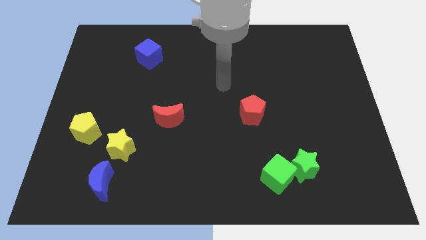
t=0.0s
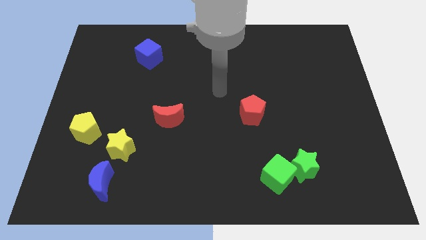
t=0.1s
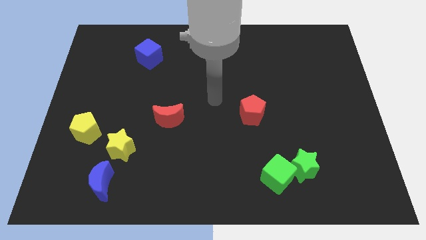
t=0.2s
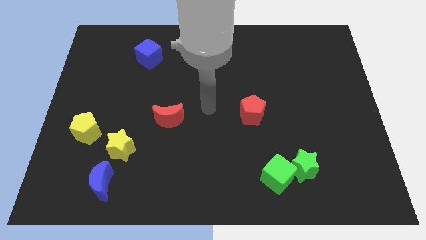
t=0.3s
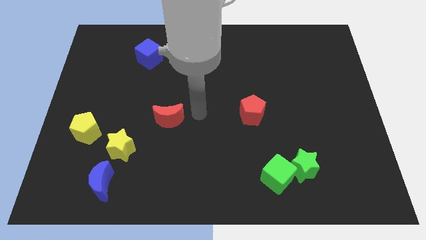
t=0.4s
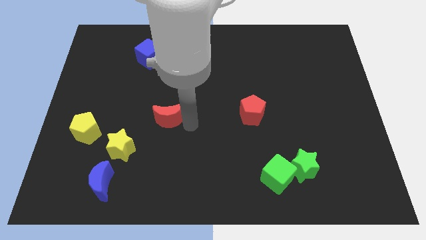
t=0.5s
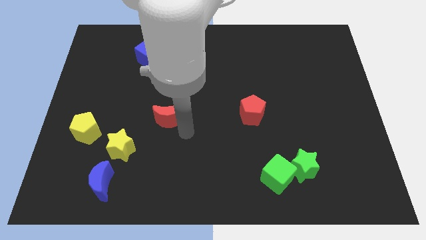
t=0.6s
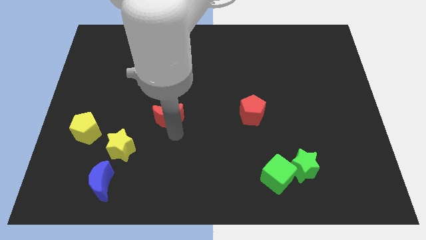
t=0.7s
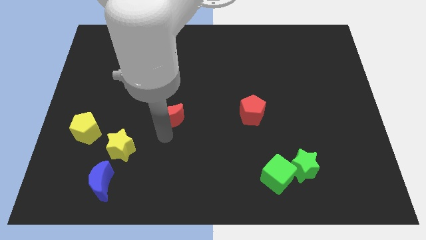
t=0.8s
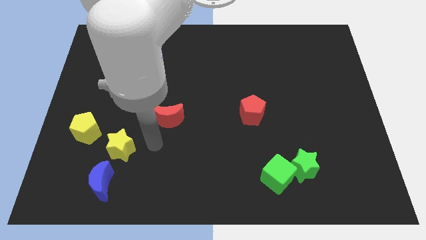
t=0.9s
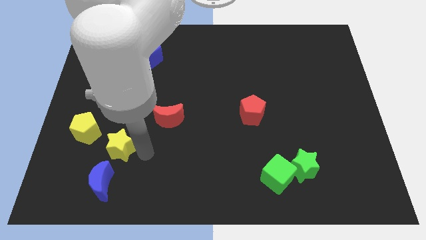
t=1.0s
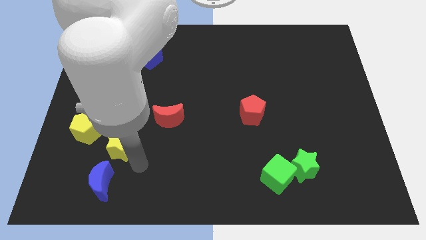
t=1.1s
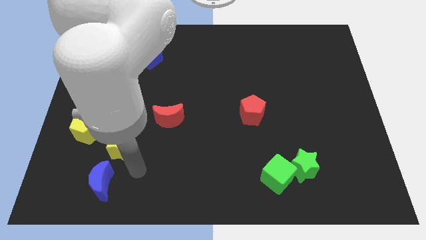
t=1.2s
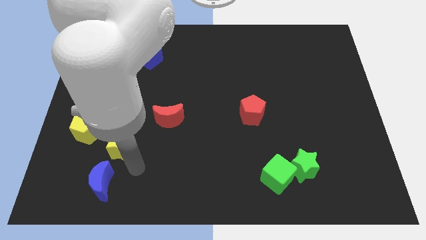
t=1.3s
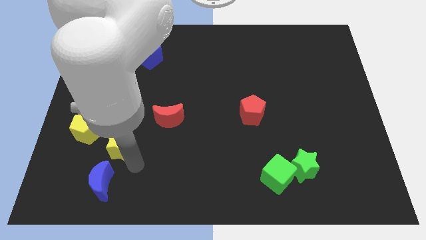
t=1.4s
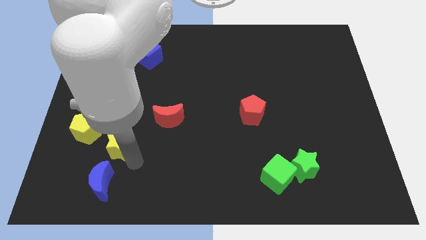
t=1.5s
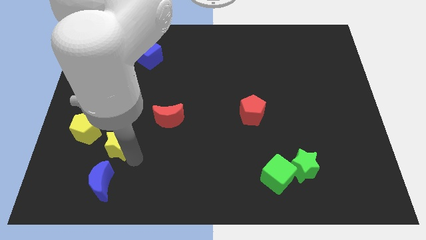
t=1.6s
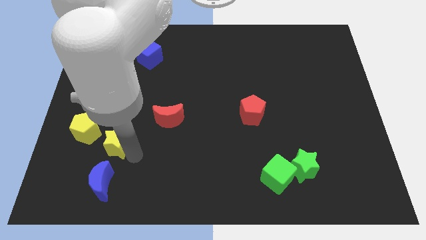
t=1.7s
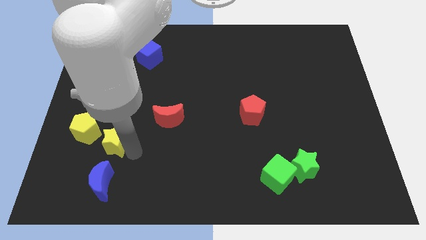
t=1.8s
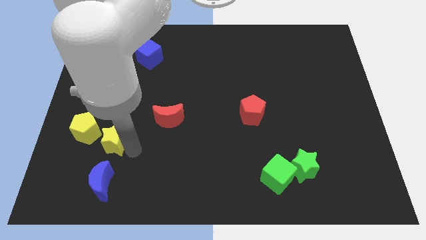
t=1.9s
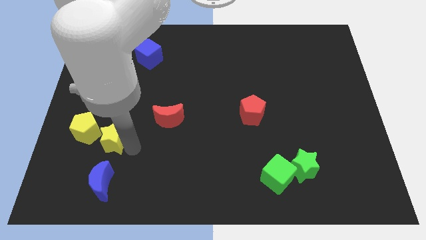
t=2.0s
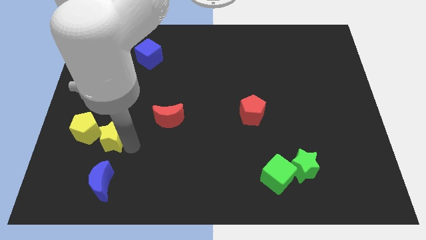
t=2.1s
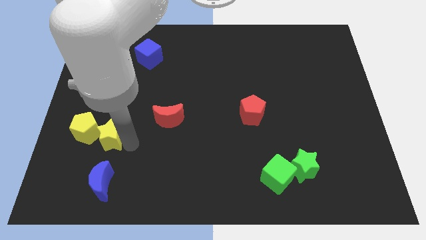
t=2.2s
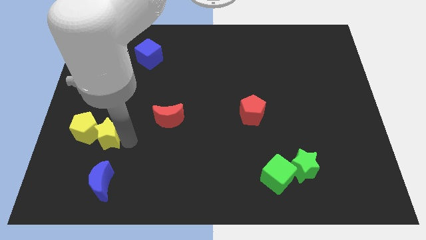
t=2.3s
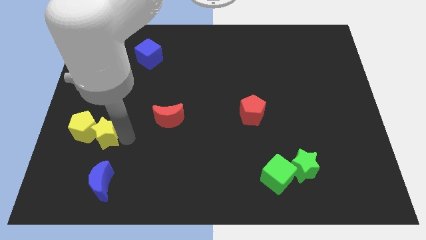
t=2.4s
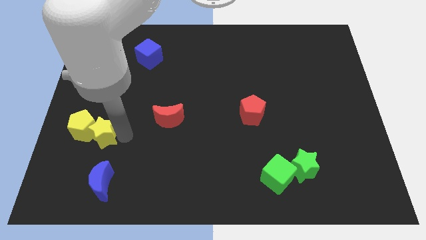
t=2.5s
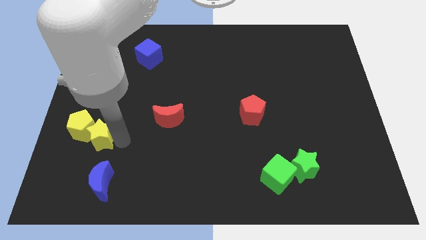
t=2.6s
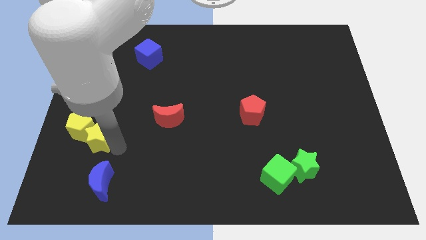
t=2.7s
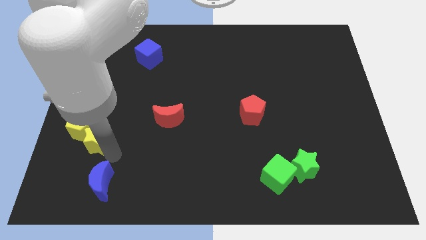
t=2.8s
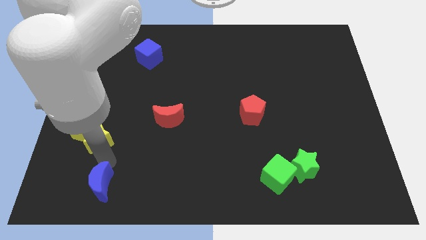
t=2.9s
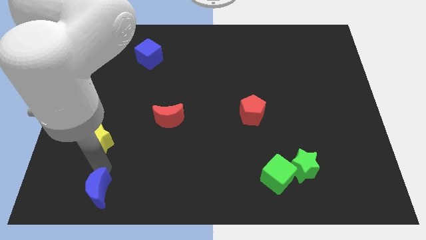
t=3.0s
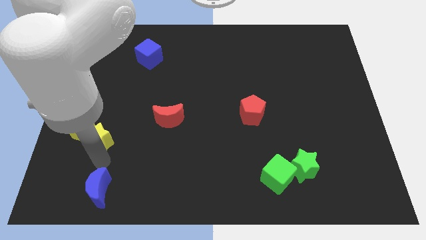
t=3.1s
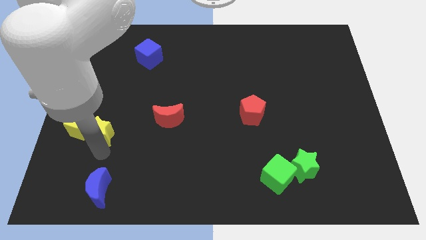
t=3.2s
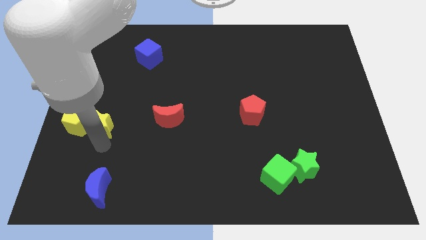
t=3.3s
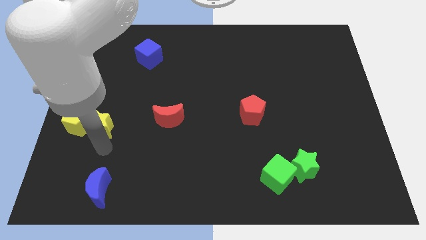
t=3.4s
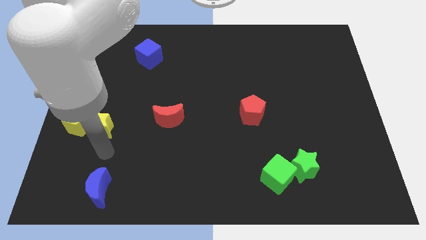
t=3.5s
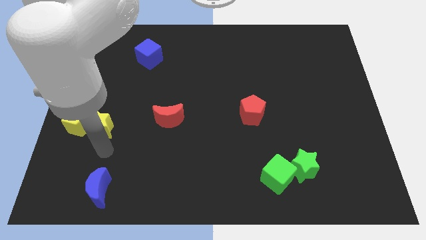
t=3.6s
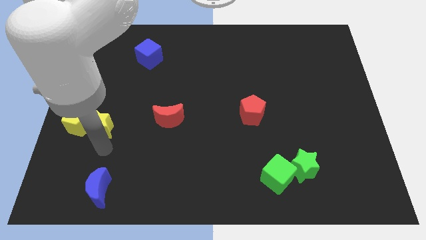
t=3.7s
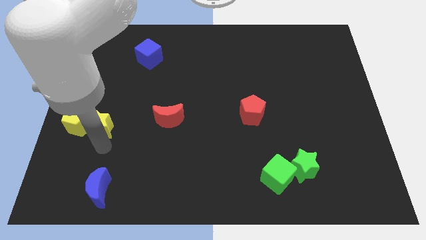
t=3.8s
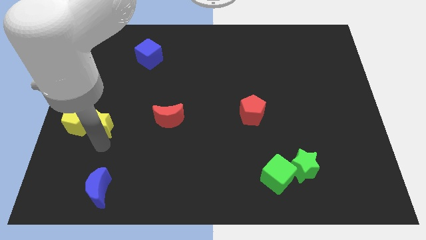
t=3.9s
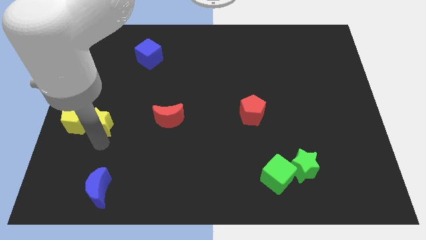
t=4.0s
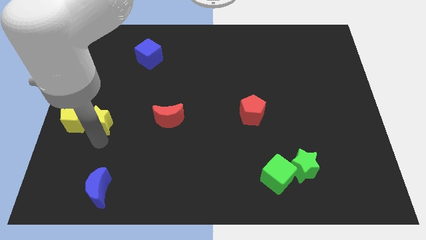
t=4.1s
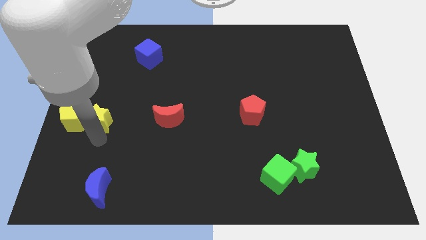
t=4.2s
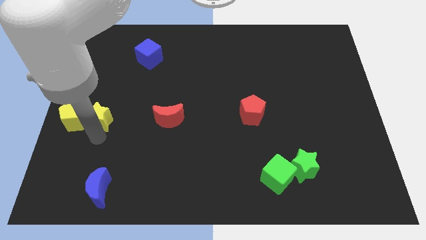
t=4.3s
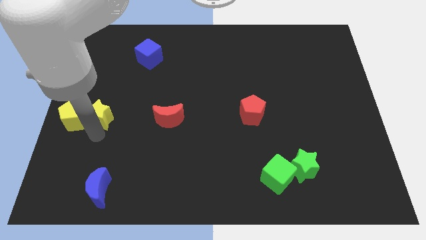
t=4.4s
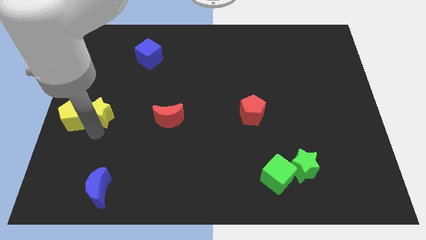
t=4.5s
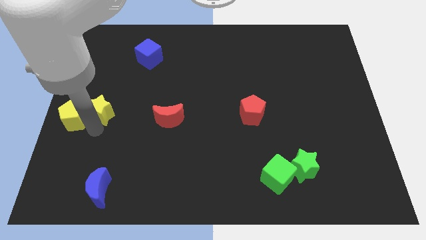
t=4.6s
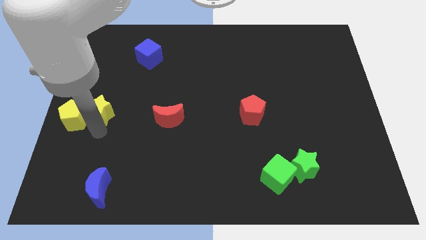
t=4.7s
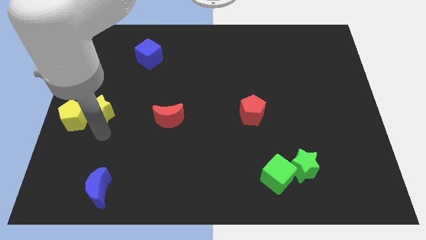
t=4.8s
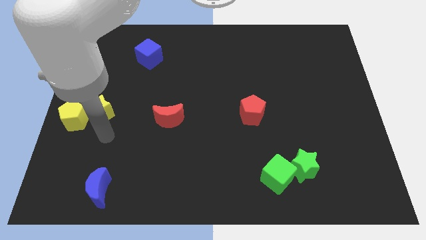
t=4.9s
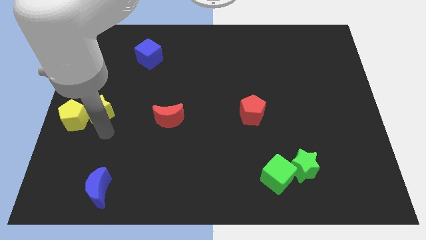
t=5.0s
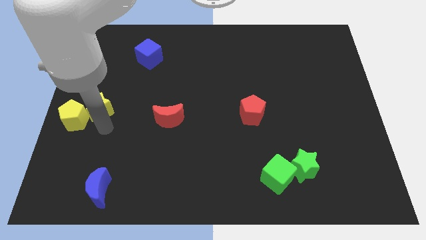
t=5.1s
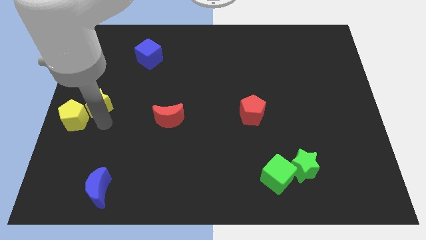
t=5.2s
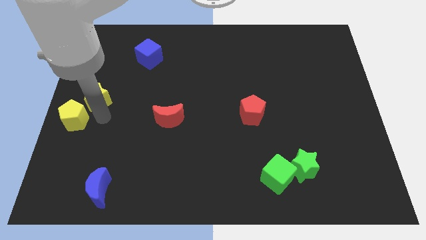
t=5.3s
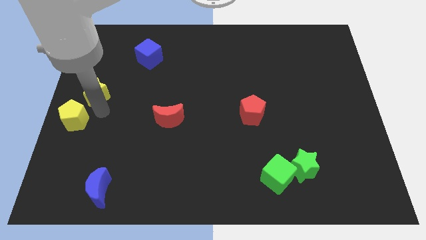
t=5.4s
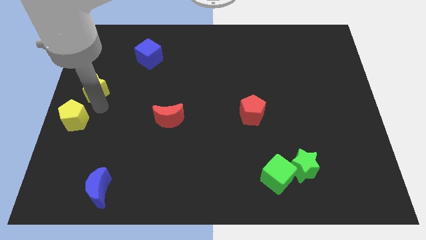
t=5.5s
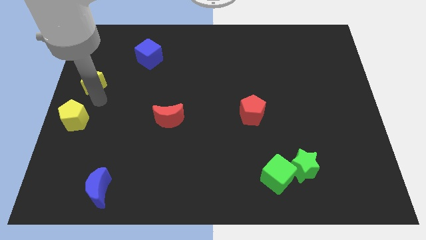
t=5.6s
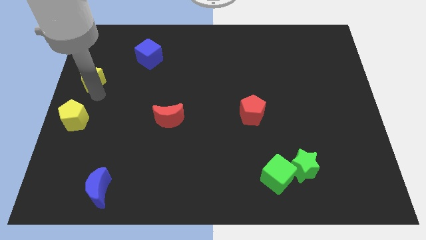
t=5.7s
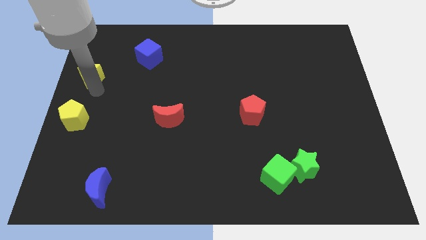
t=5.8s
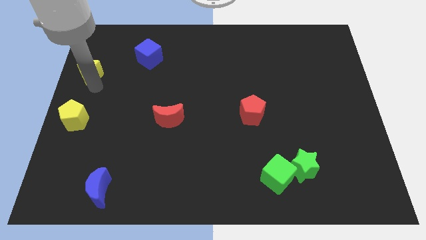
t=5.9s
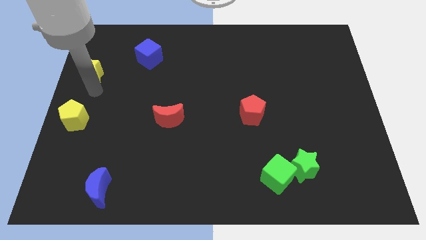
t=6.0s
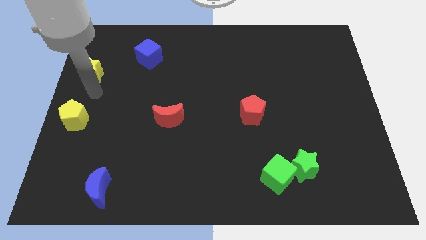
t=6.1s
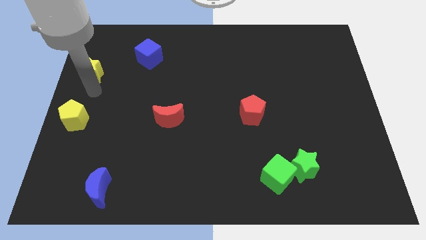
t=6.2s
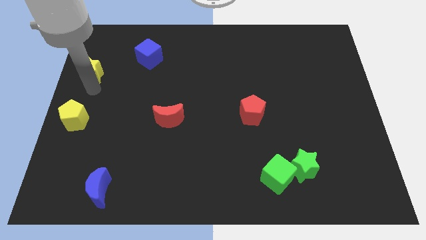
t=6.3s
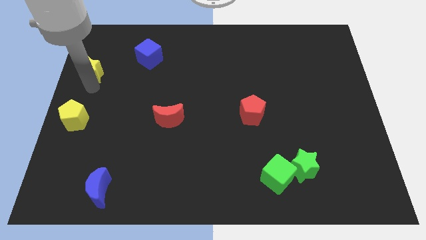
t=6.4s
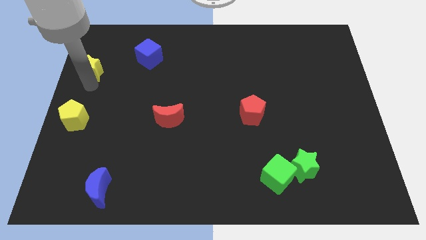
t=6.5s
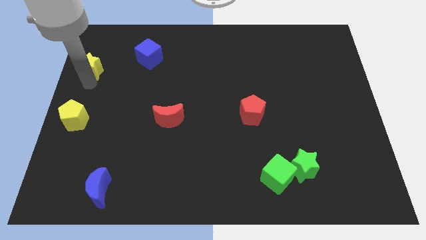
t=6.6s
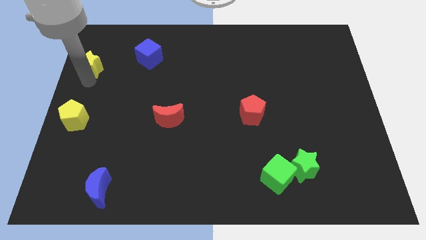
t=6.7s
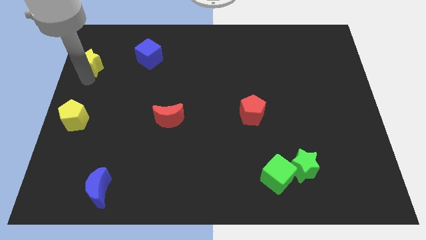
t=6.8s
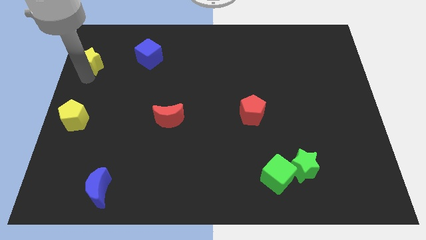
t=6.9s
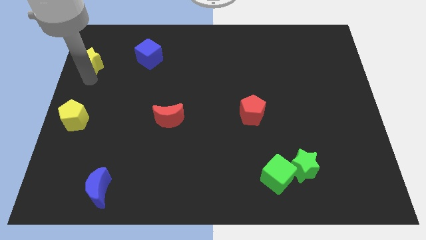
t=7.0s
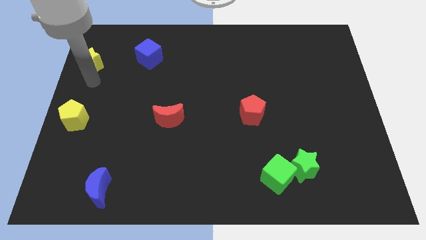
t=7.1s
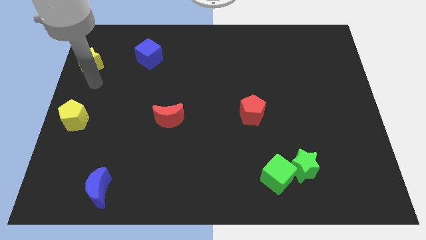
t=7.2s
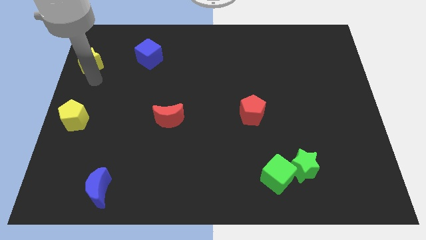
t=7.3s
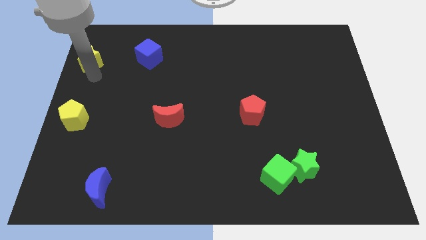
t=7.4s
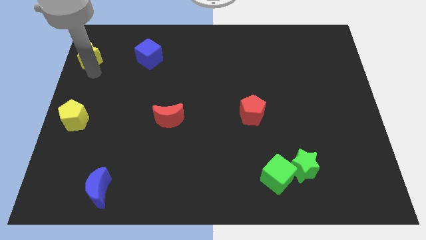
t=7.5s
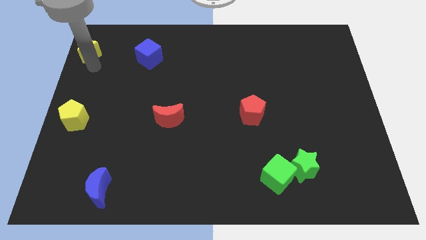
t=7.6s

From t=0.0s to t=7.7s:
slide the yellow star to the upper left corner

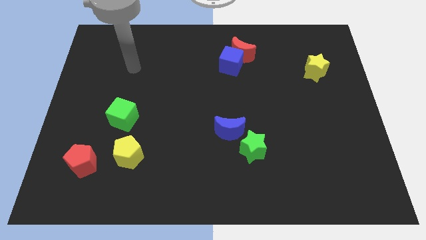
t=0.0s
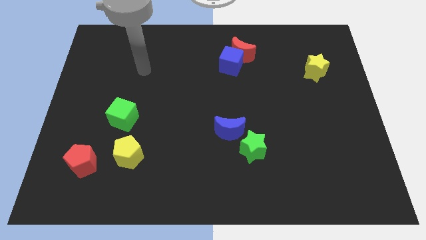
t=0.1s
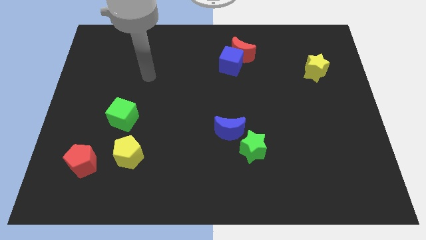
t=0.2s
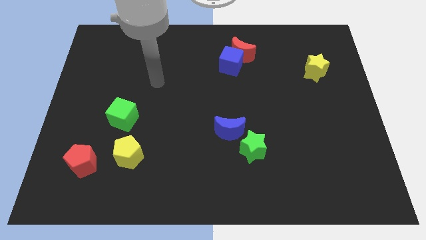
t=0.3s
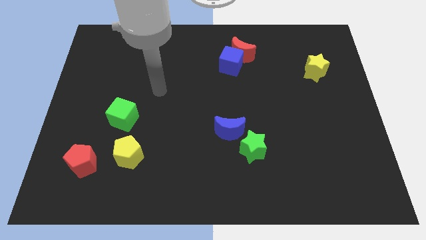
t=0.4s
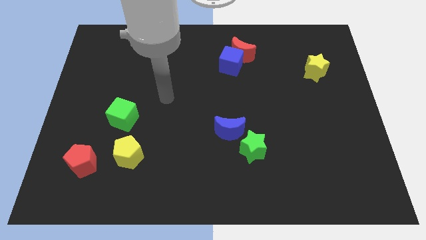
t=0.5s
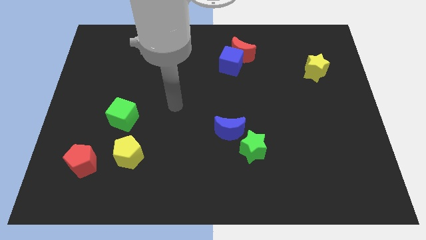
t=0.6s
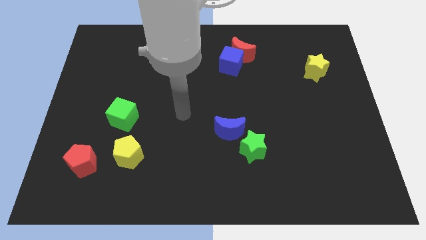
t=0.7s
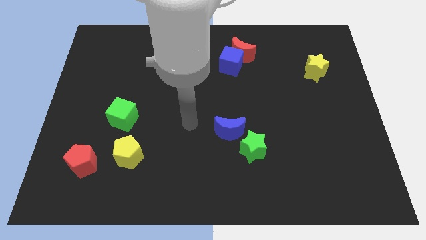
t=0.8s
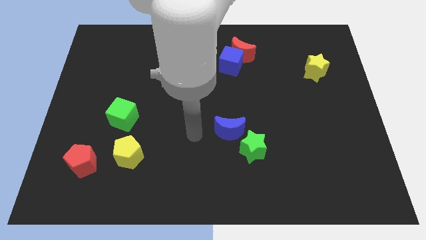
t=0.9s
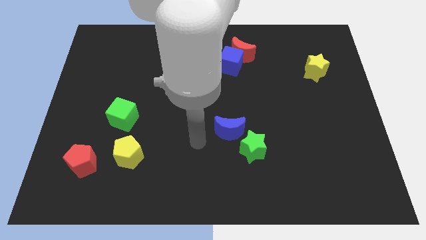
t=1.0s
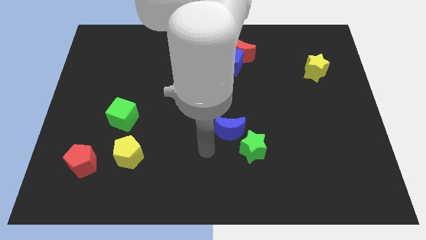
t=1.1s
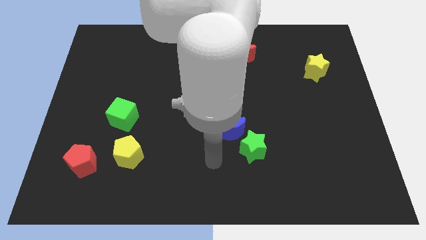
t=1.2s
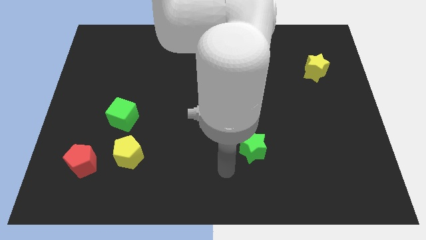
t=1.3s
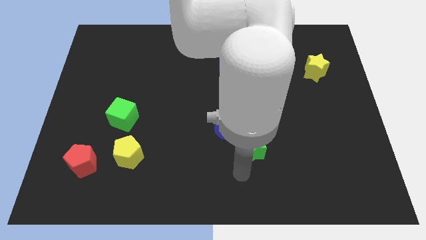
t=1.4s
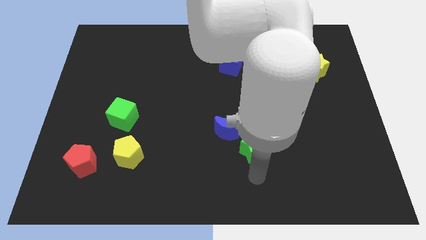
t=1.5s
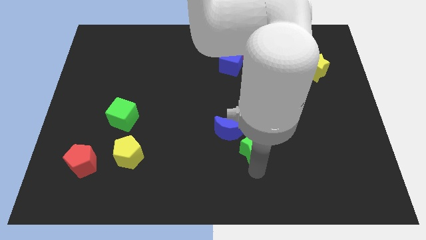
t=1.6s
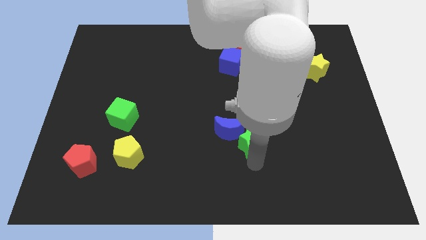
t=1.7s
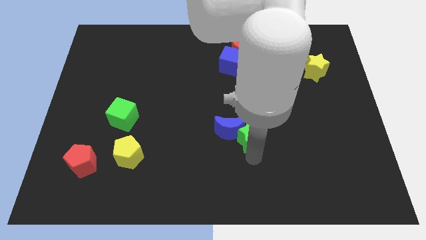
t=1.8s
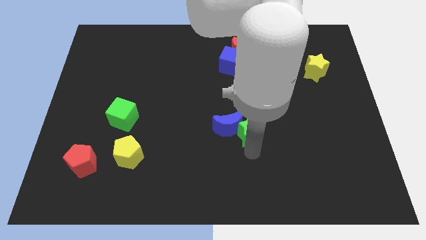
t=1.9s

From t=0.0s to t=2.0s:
move the green star to the middle
